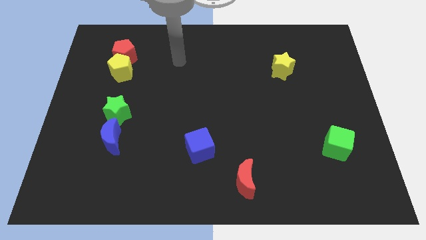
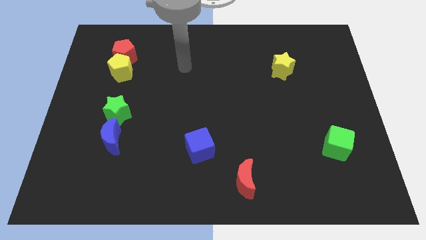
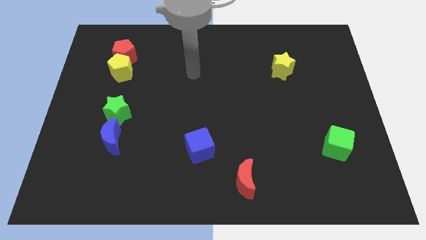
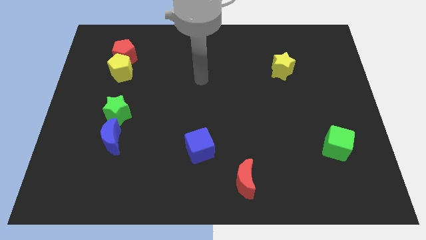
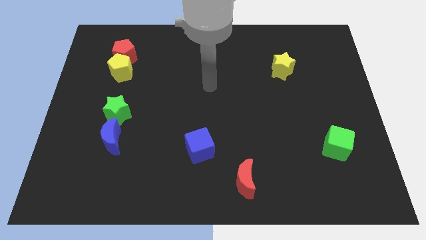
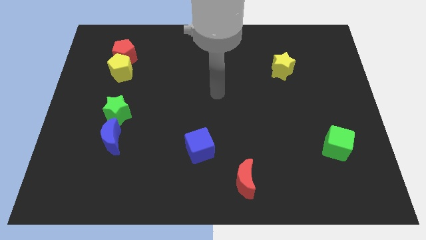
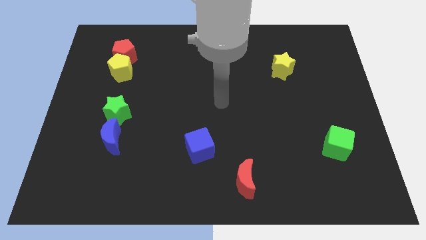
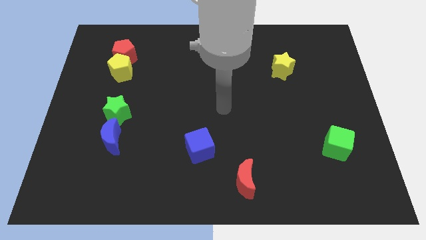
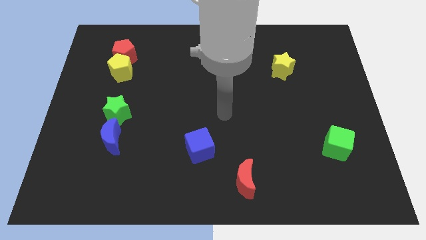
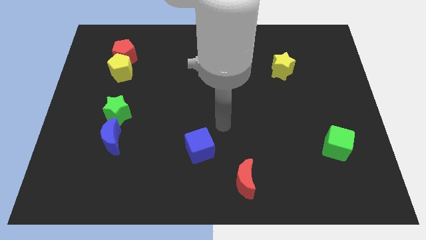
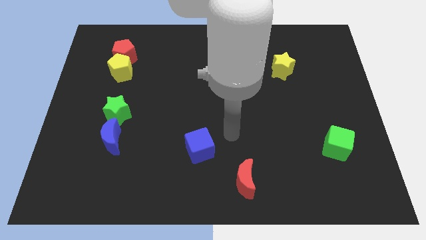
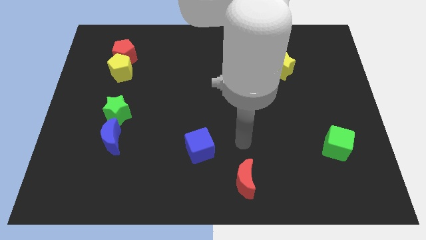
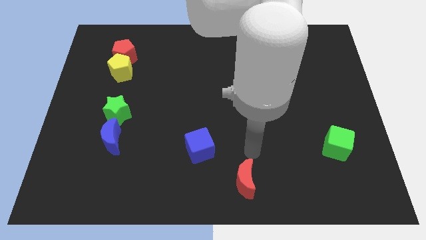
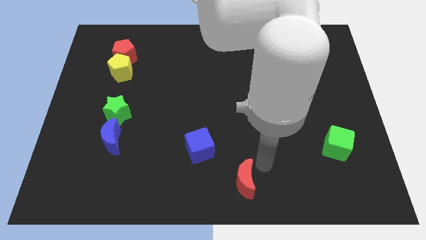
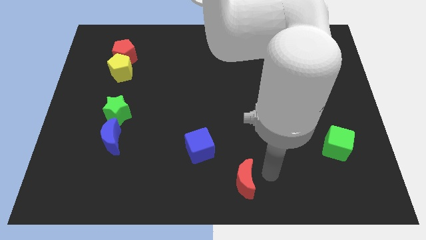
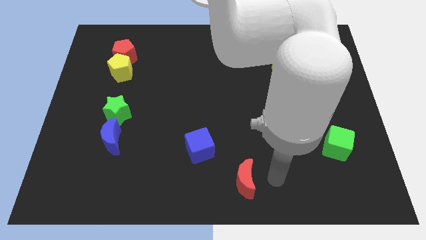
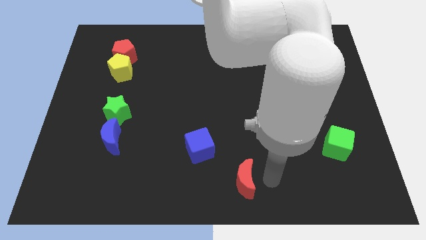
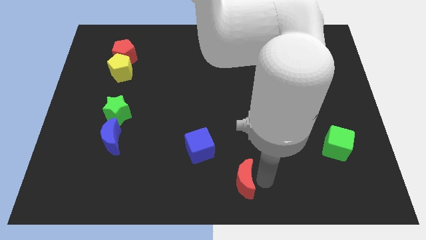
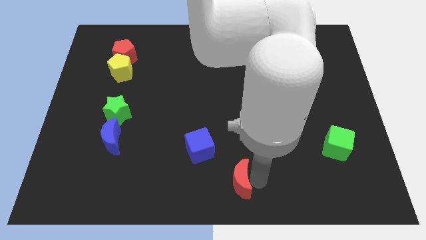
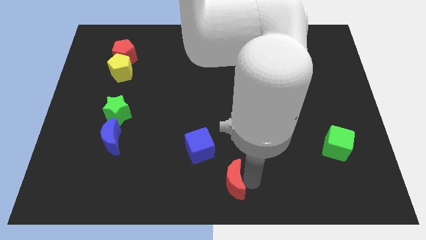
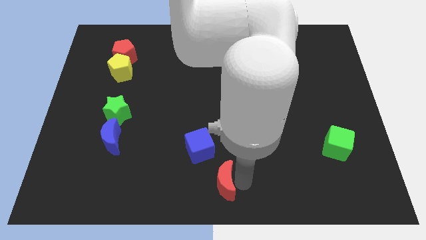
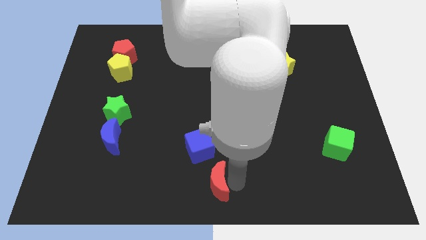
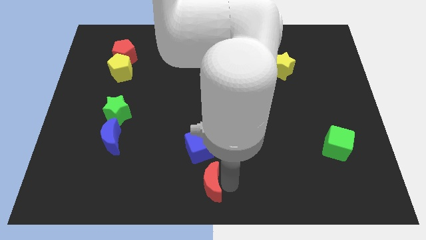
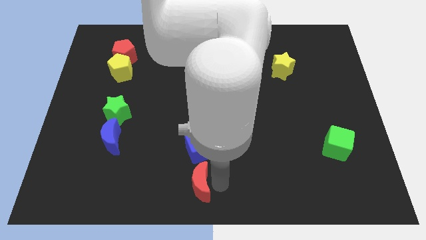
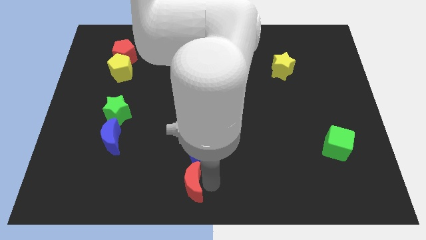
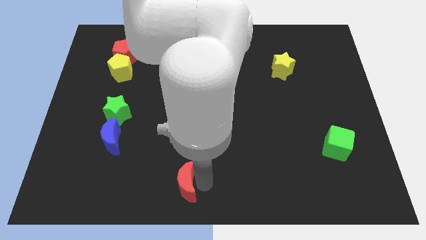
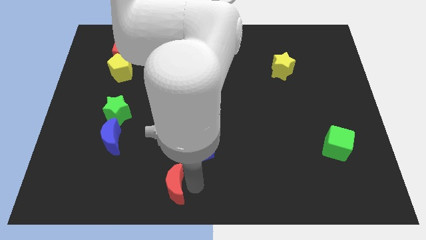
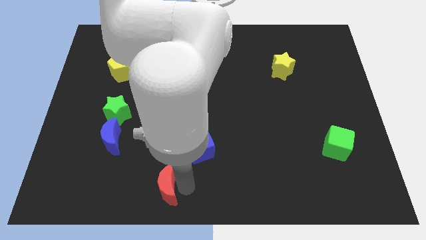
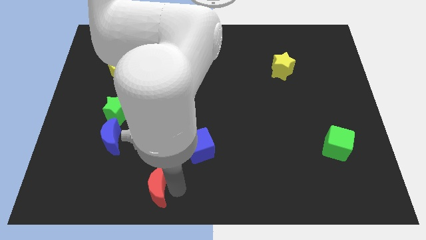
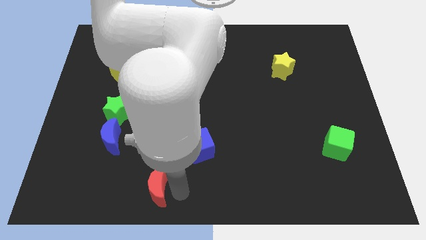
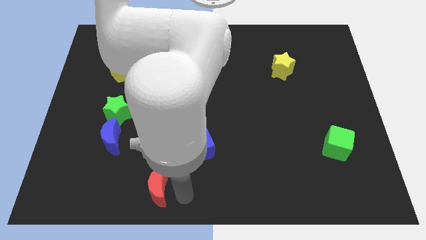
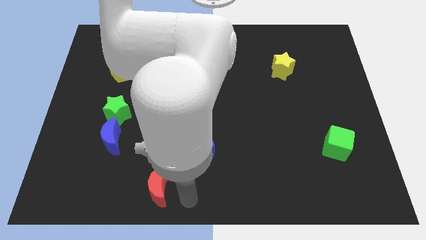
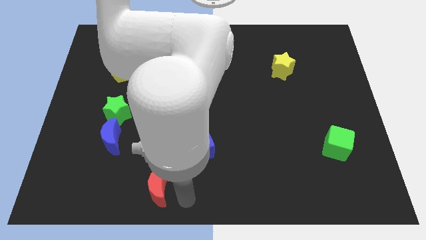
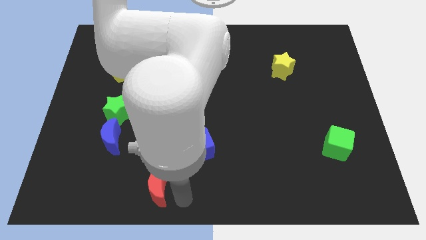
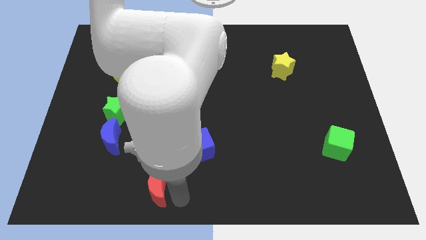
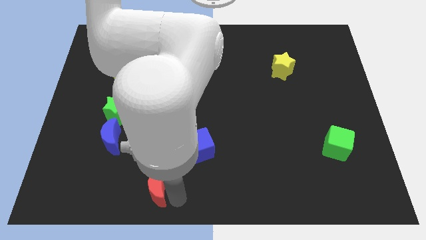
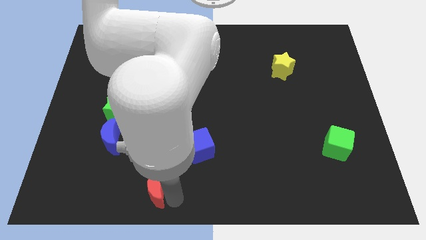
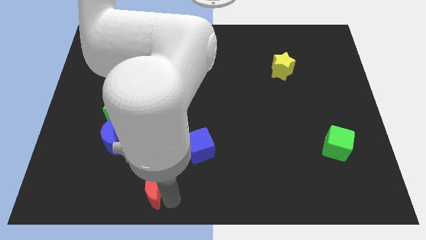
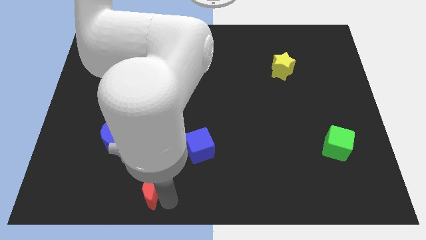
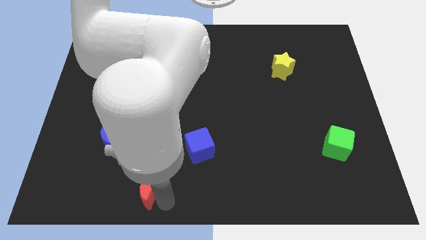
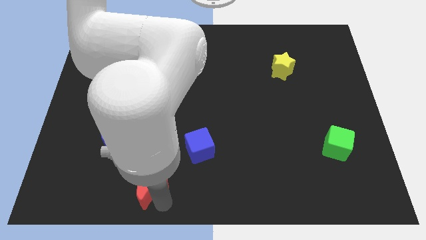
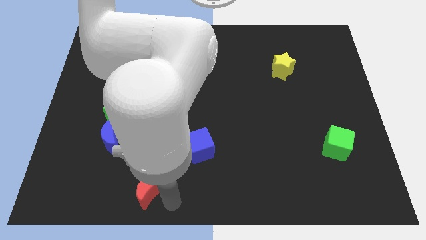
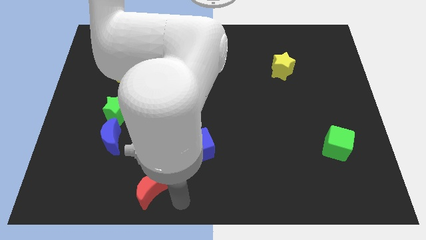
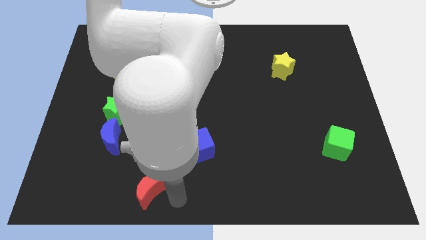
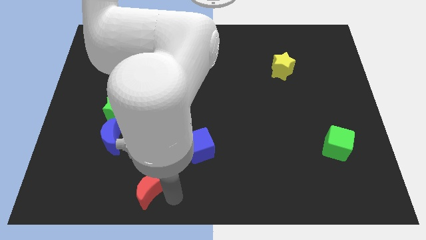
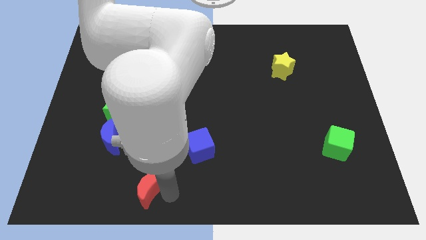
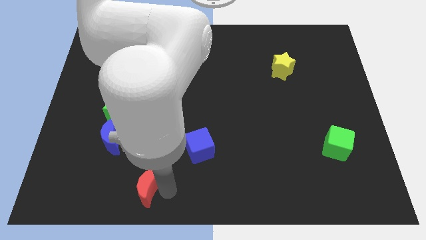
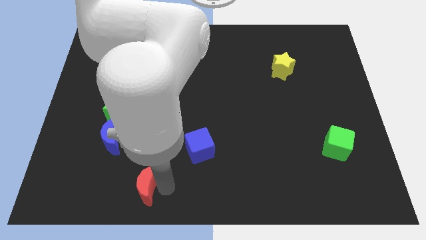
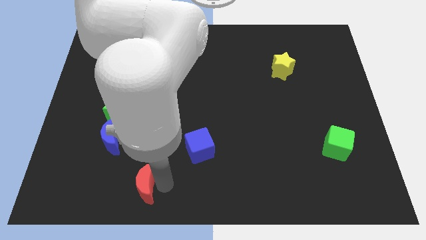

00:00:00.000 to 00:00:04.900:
slide the red moon to the left

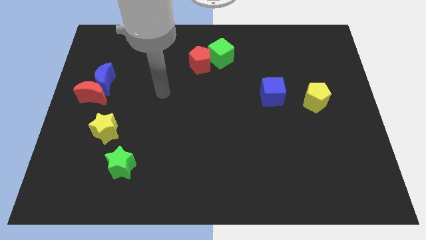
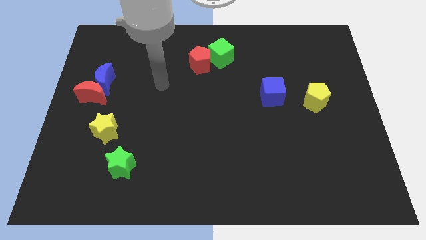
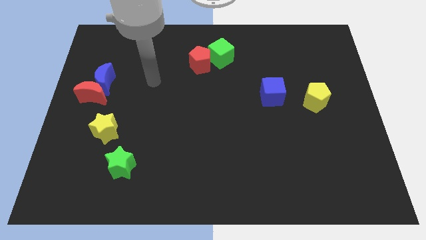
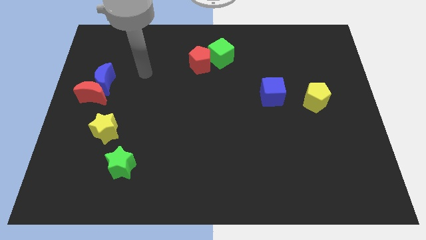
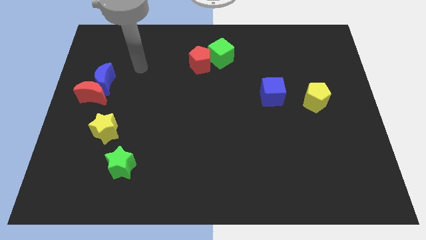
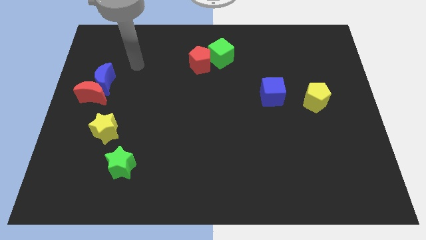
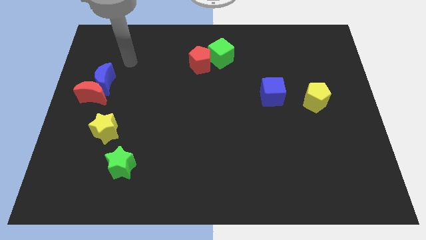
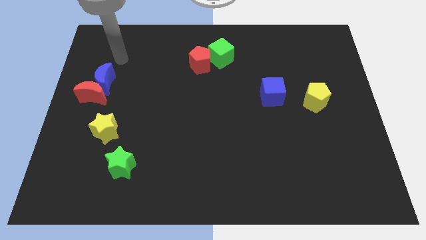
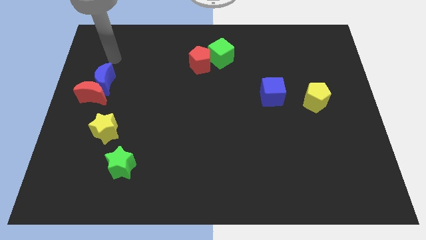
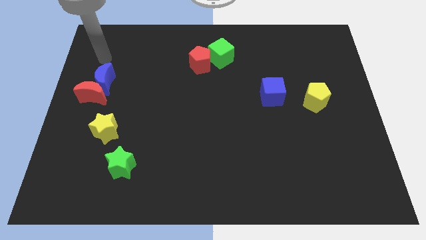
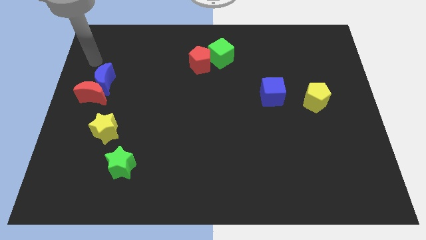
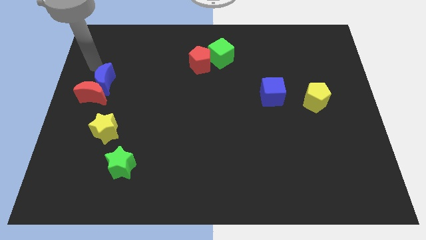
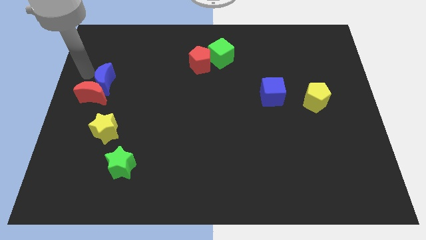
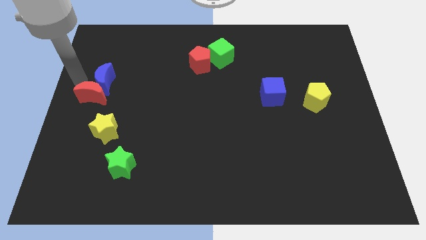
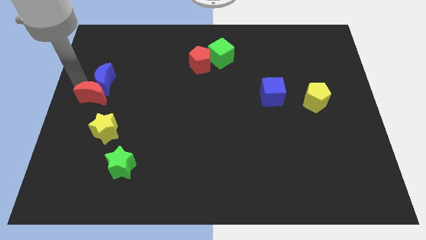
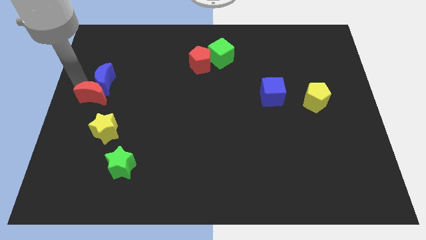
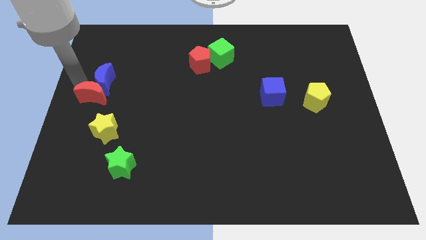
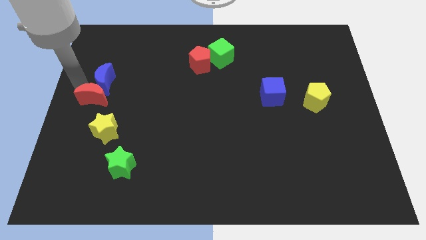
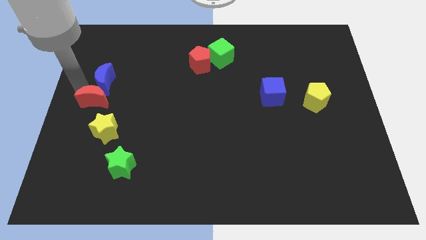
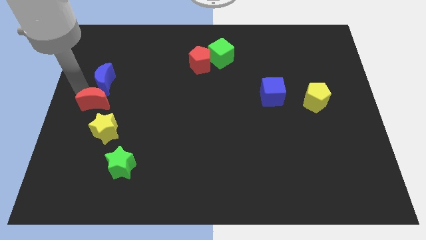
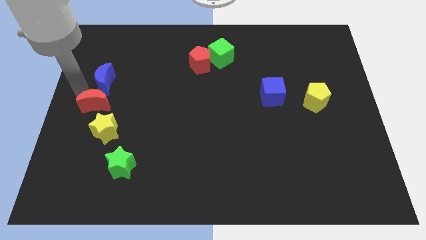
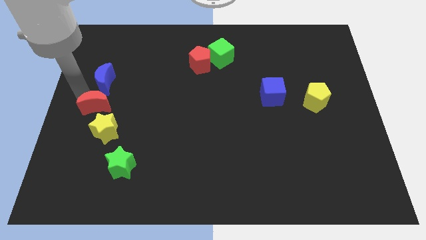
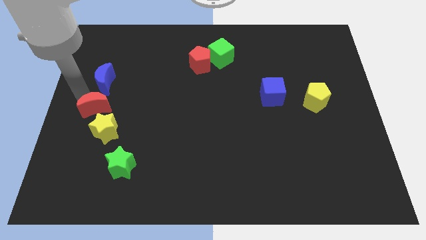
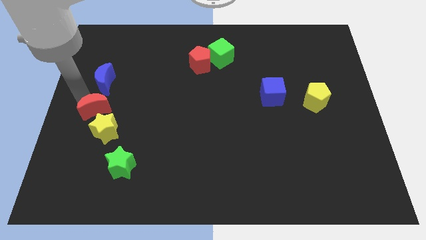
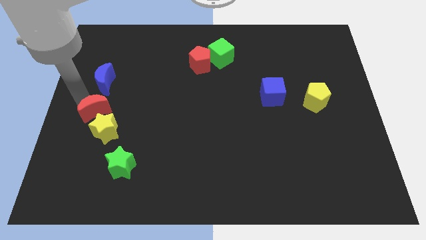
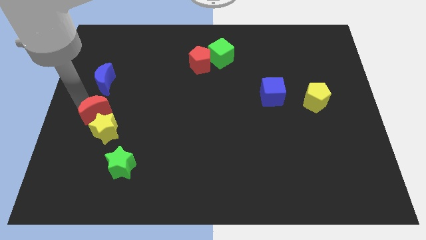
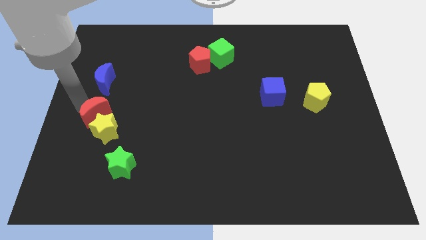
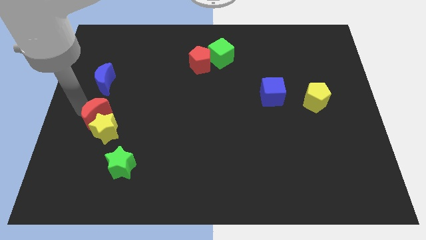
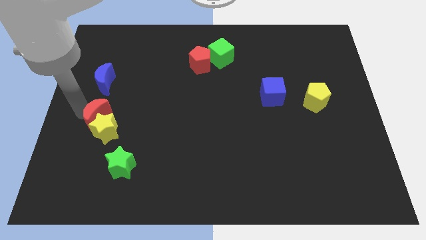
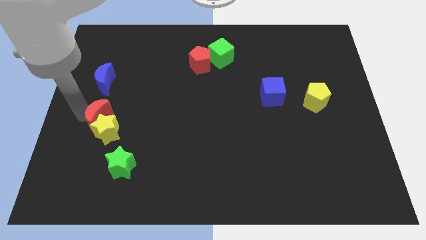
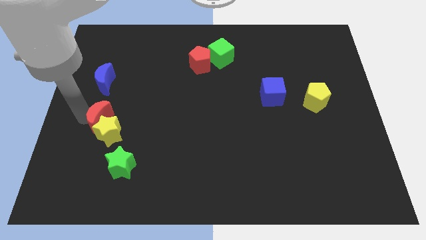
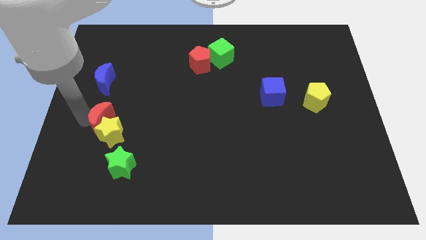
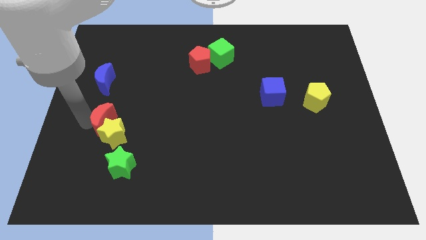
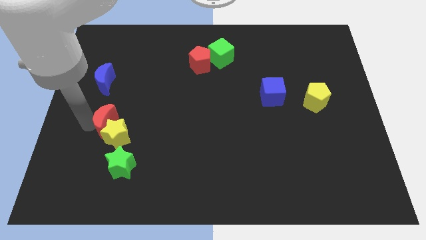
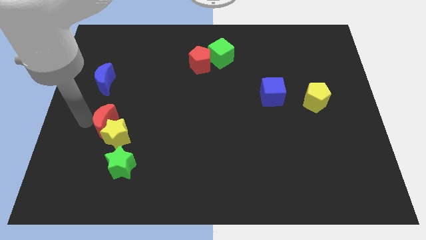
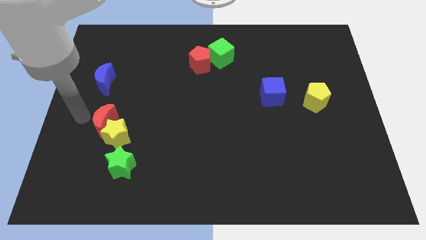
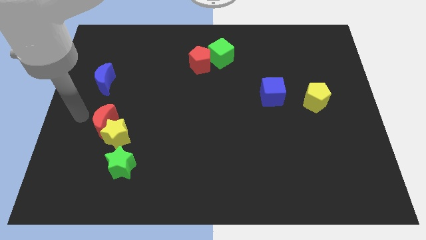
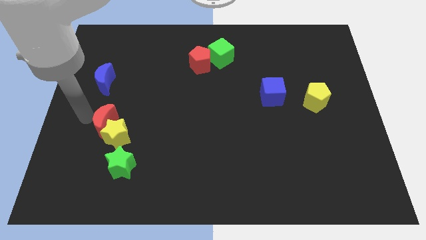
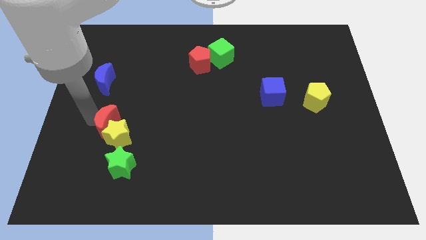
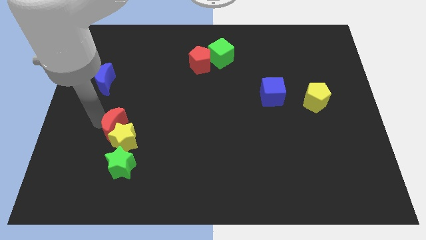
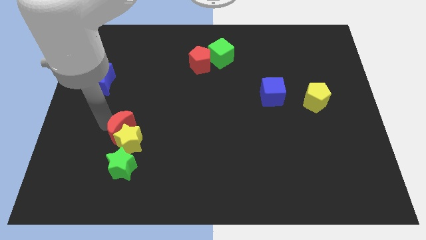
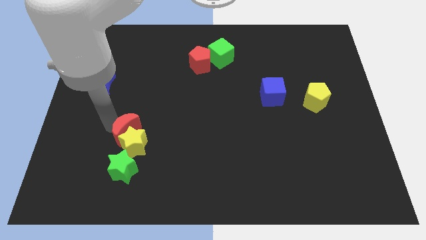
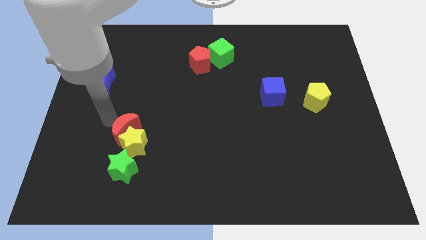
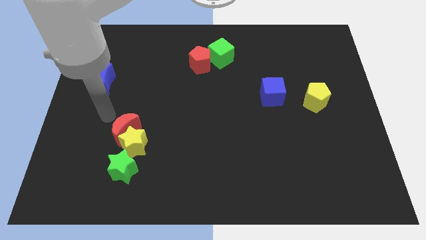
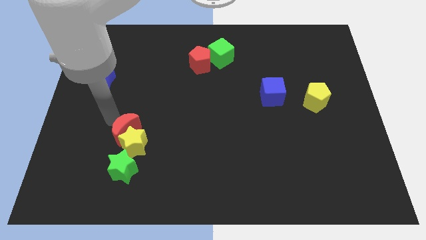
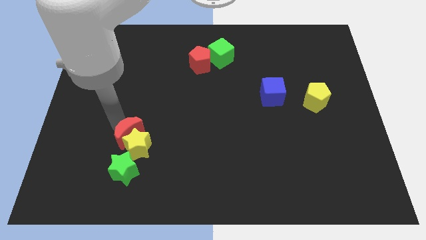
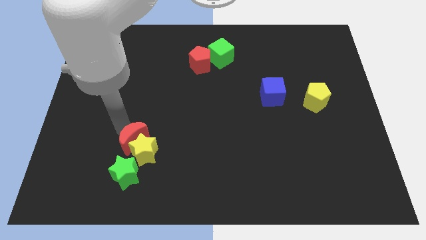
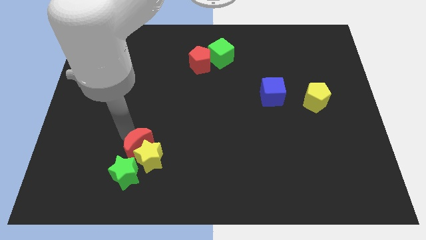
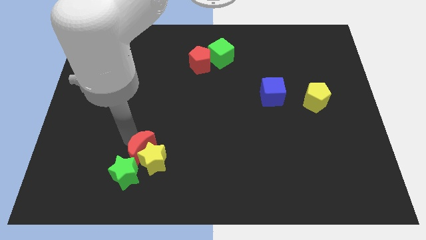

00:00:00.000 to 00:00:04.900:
push the red moon diagonally downwards and right
